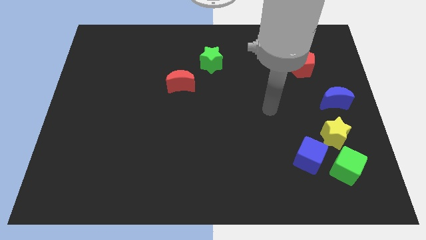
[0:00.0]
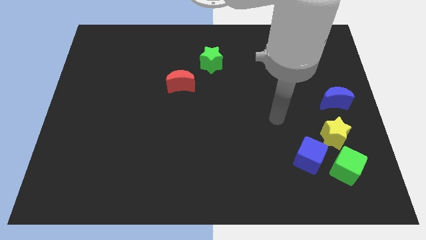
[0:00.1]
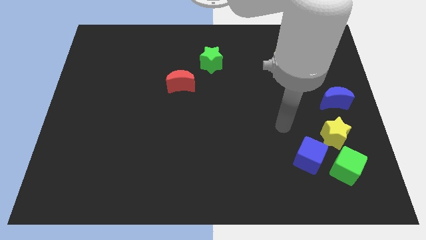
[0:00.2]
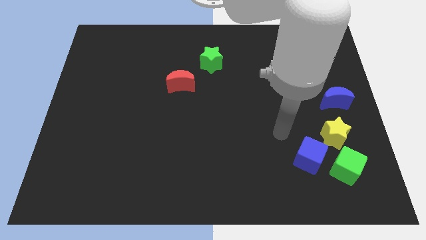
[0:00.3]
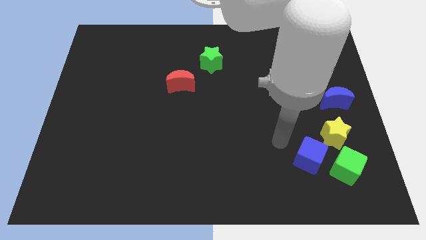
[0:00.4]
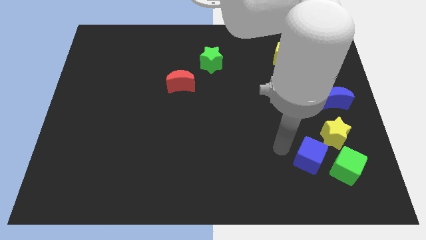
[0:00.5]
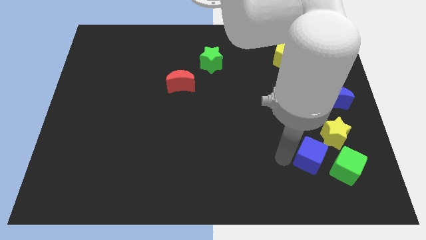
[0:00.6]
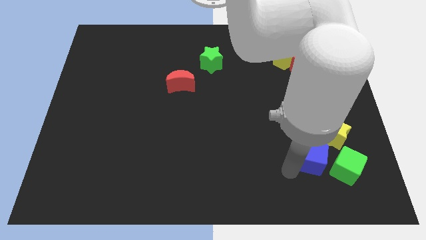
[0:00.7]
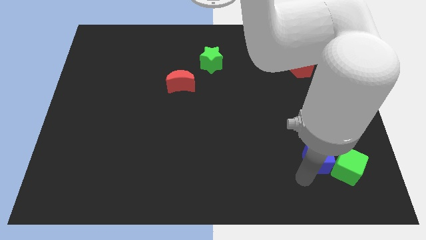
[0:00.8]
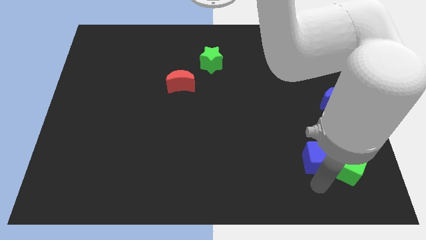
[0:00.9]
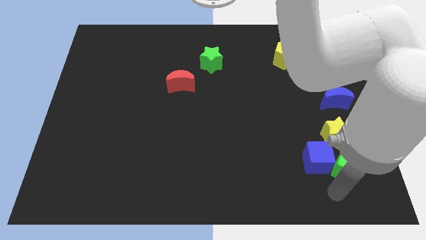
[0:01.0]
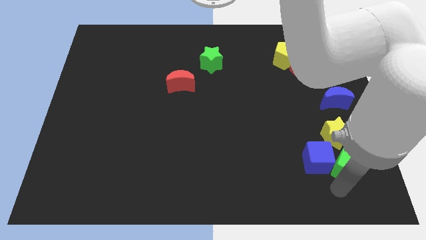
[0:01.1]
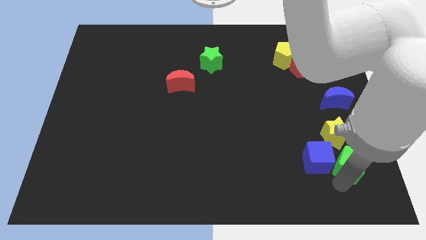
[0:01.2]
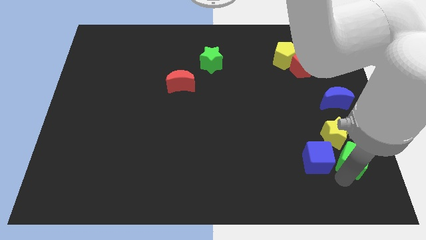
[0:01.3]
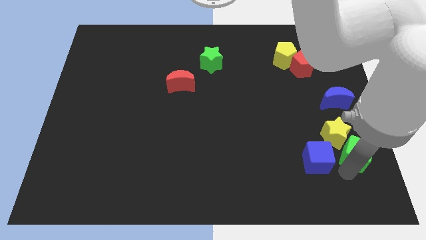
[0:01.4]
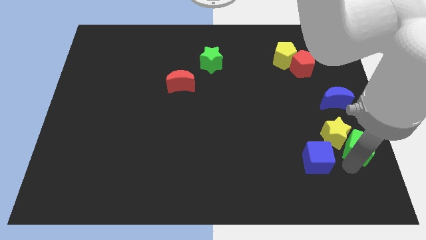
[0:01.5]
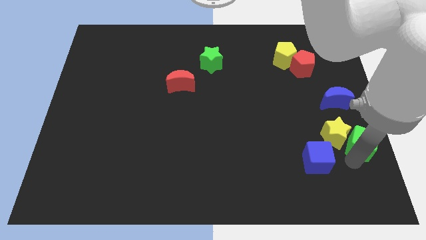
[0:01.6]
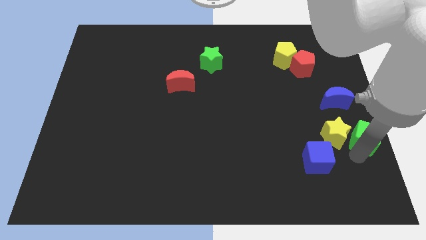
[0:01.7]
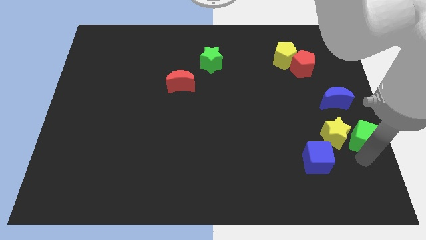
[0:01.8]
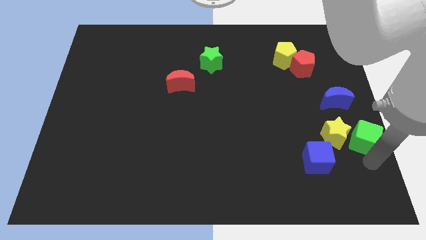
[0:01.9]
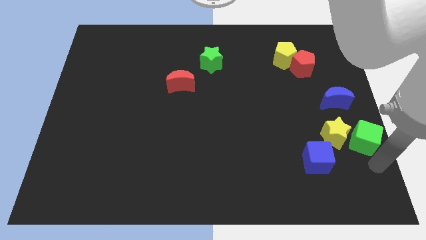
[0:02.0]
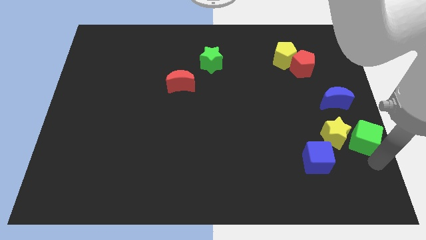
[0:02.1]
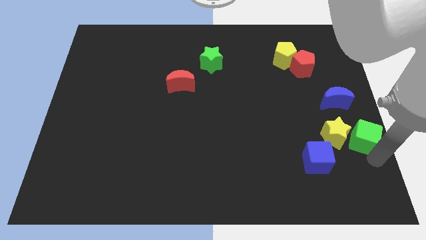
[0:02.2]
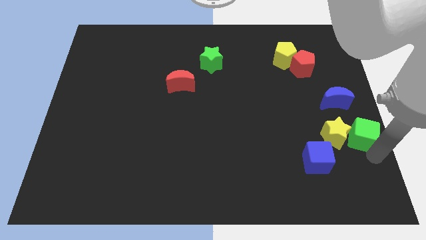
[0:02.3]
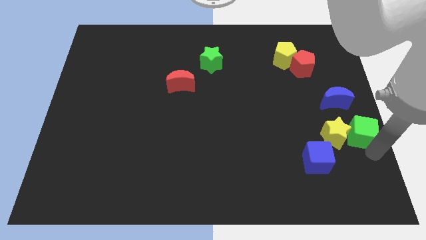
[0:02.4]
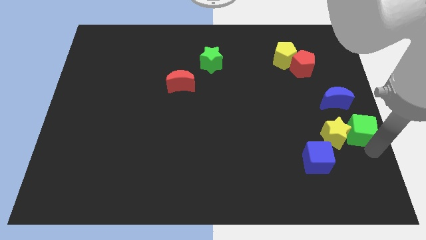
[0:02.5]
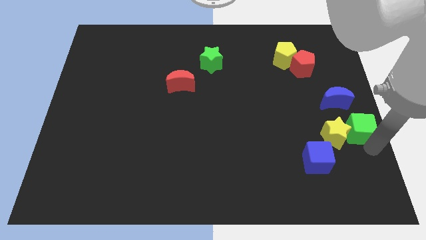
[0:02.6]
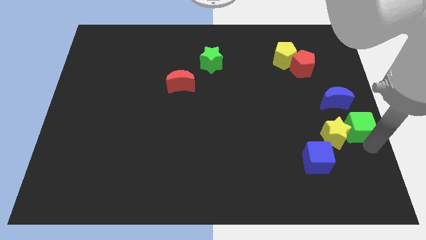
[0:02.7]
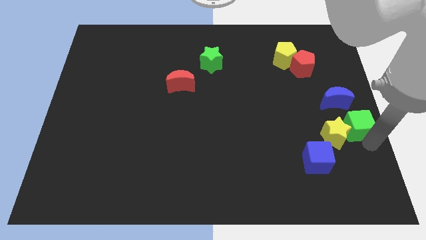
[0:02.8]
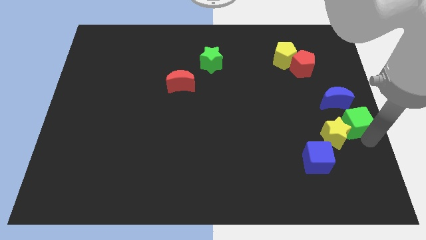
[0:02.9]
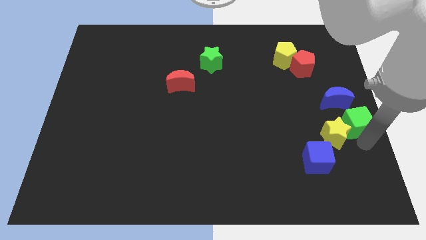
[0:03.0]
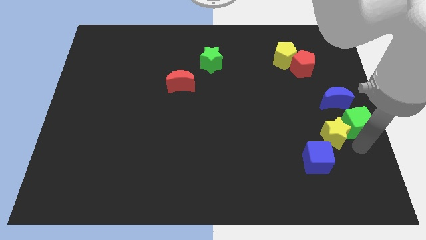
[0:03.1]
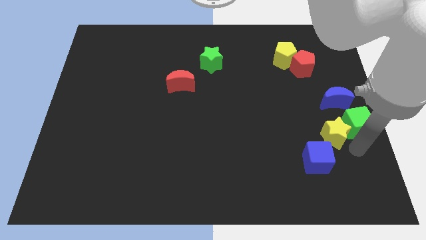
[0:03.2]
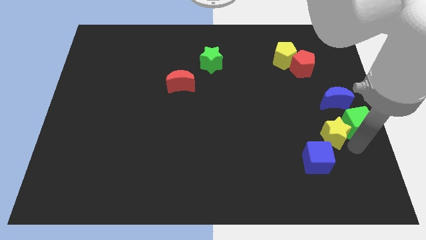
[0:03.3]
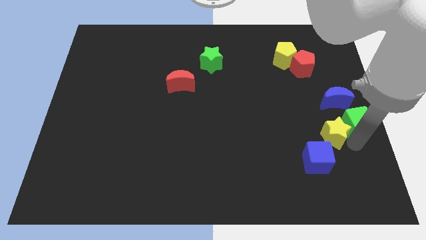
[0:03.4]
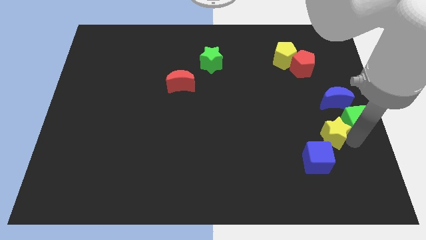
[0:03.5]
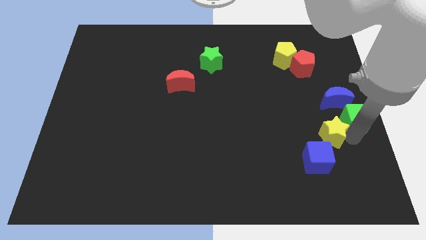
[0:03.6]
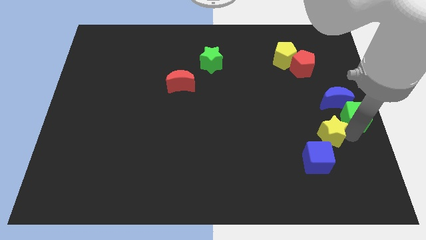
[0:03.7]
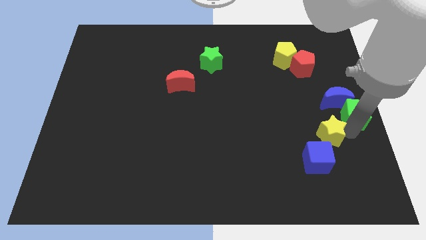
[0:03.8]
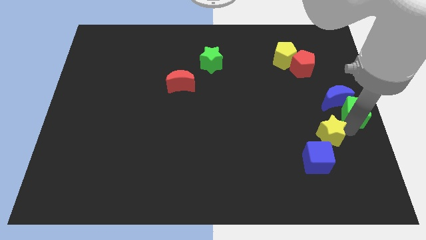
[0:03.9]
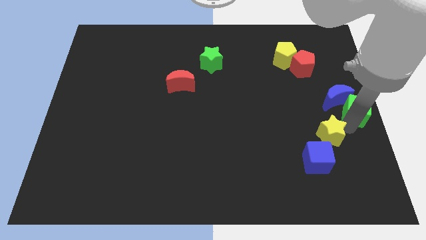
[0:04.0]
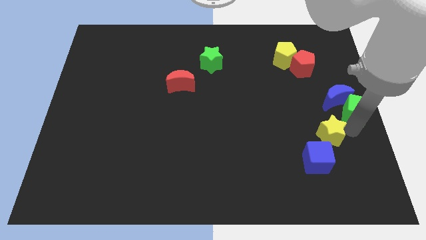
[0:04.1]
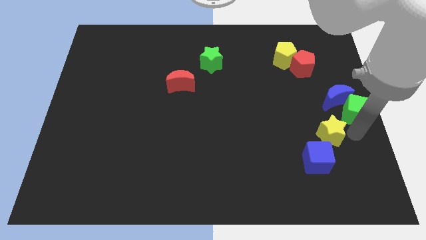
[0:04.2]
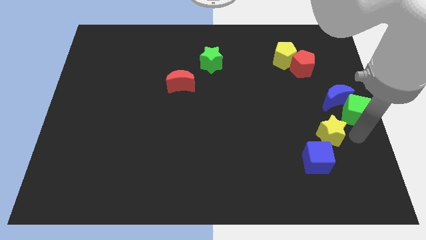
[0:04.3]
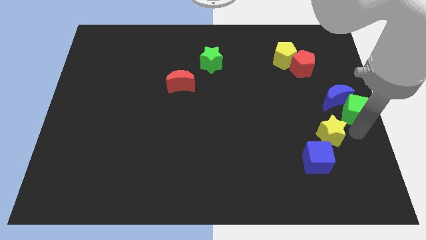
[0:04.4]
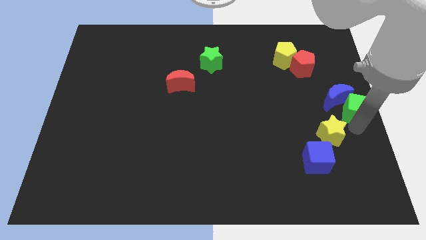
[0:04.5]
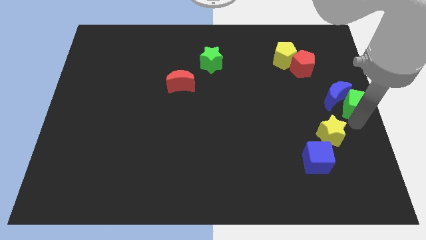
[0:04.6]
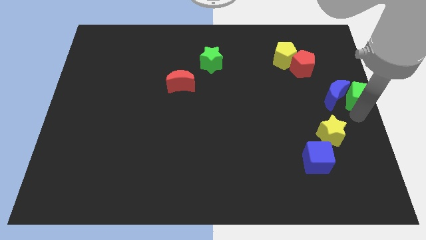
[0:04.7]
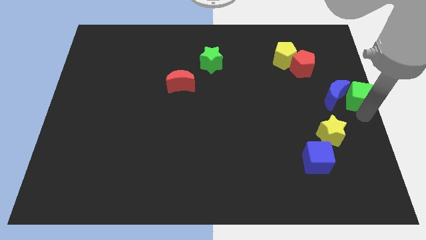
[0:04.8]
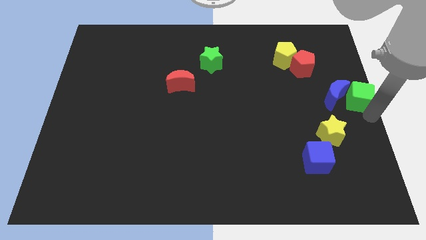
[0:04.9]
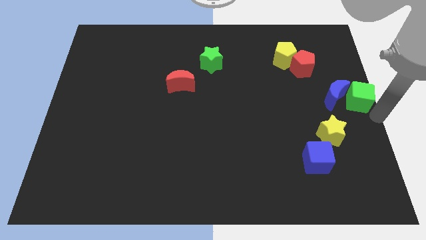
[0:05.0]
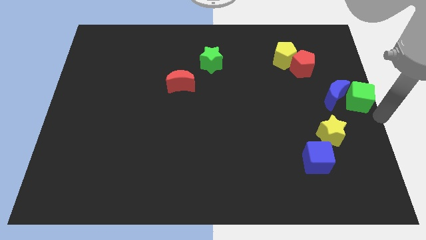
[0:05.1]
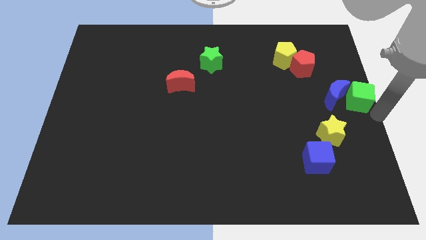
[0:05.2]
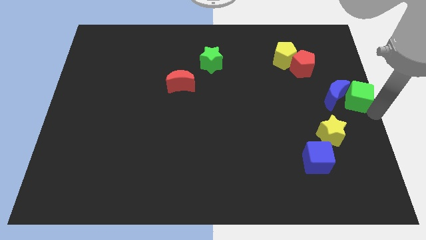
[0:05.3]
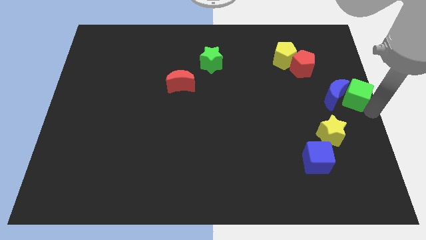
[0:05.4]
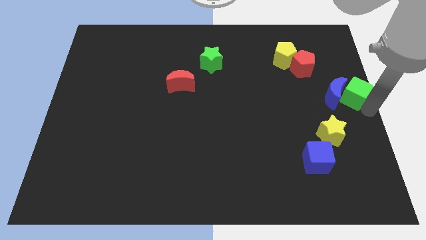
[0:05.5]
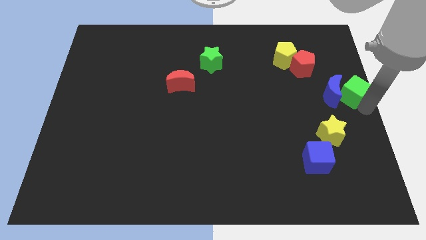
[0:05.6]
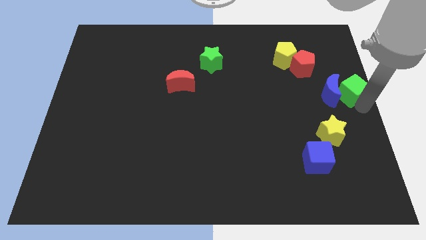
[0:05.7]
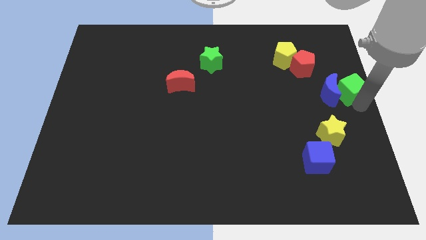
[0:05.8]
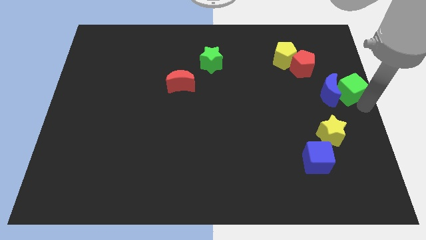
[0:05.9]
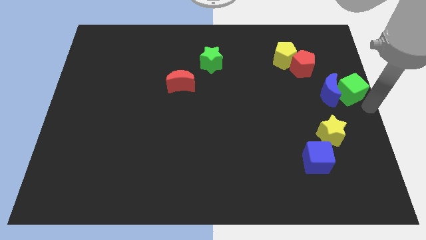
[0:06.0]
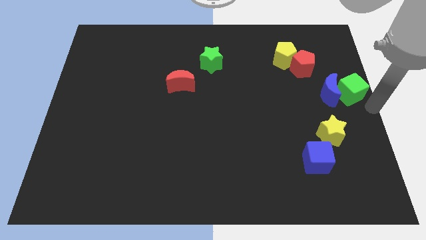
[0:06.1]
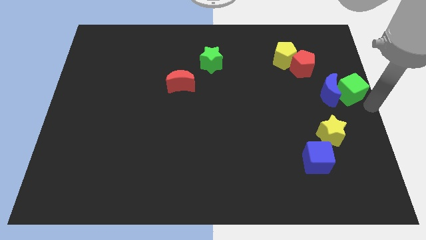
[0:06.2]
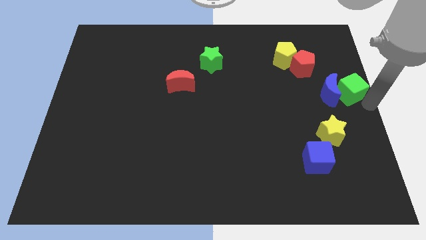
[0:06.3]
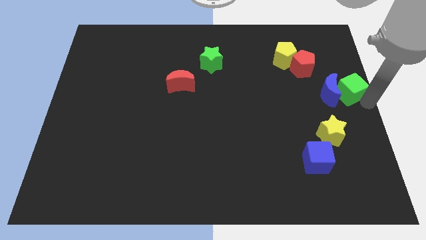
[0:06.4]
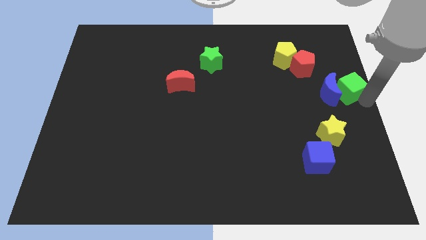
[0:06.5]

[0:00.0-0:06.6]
move the green cube up

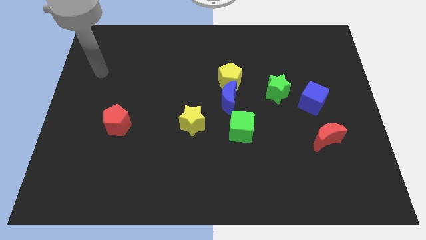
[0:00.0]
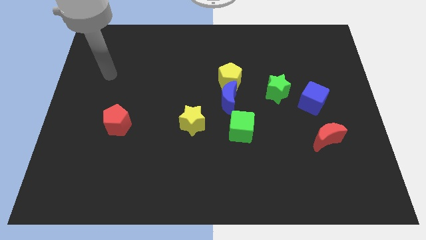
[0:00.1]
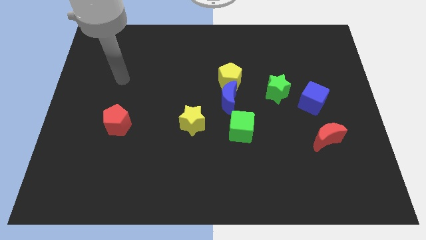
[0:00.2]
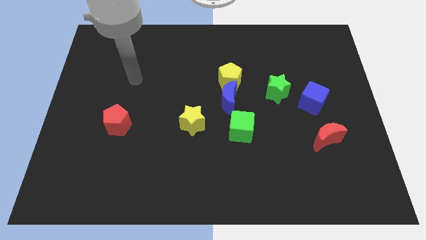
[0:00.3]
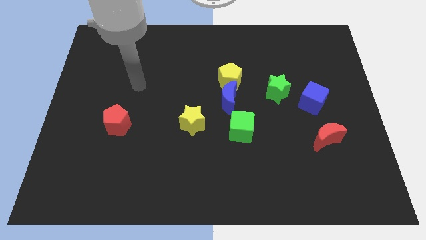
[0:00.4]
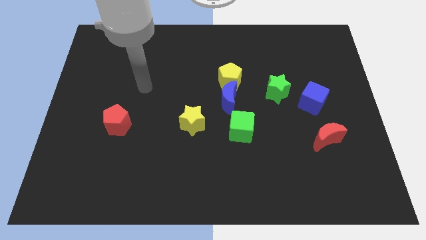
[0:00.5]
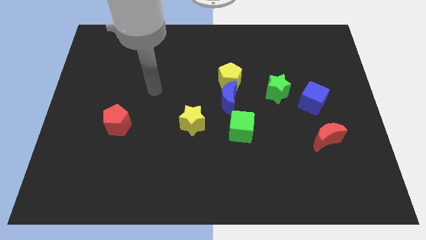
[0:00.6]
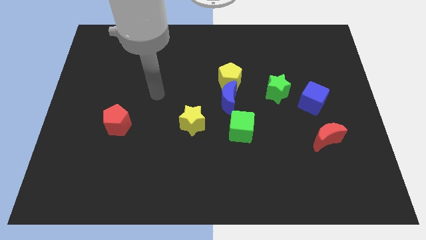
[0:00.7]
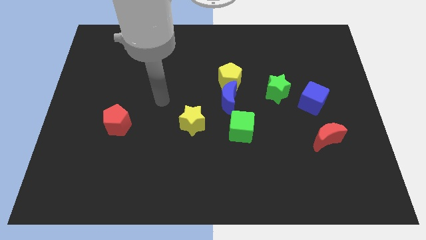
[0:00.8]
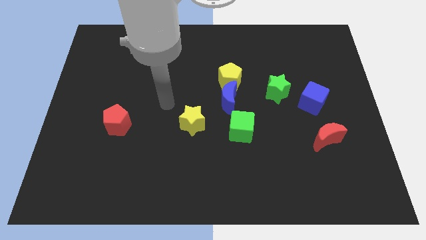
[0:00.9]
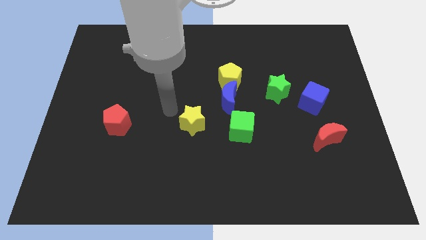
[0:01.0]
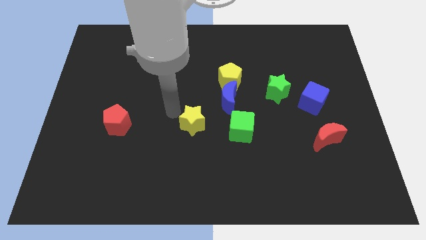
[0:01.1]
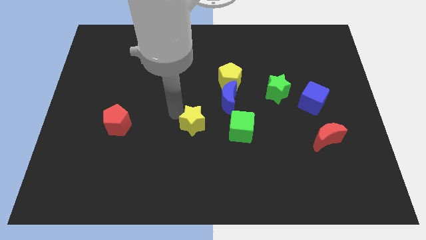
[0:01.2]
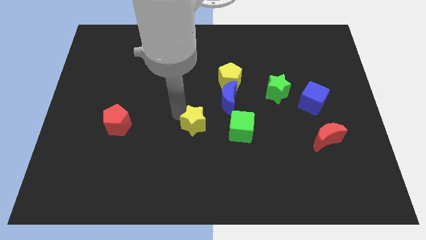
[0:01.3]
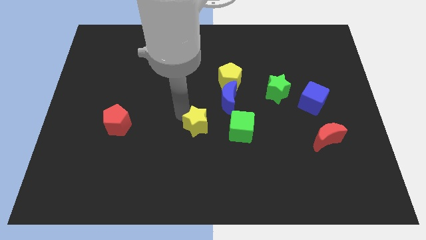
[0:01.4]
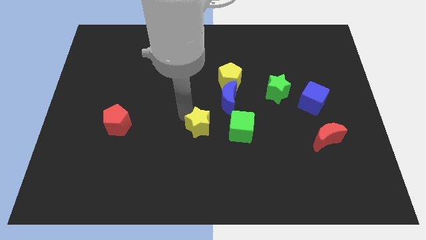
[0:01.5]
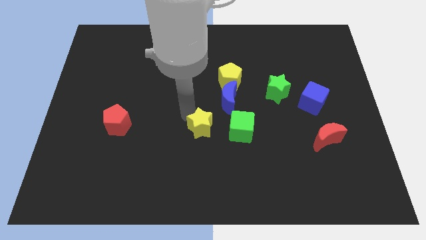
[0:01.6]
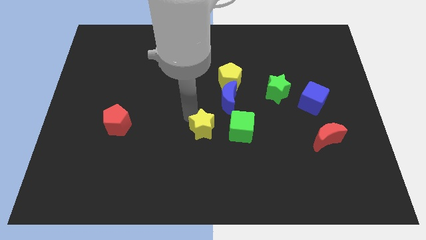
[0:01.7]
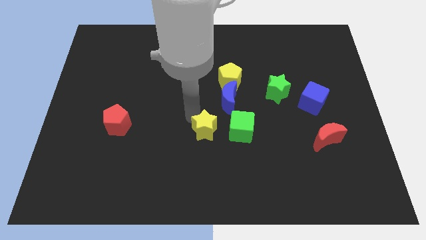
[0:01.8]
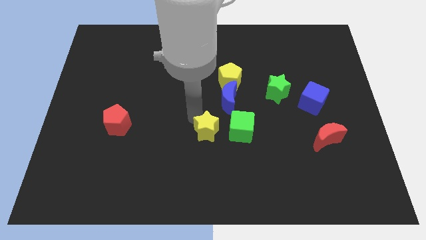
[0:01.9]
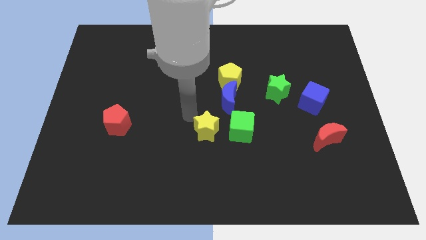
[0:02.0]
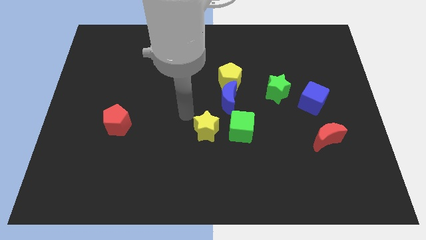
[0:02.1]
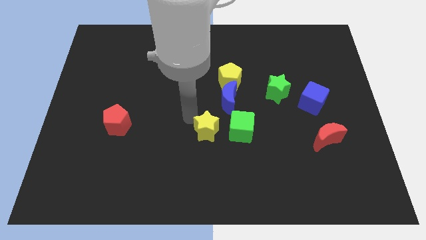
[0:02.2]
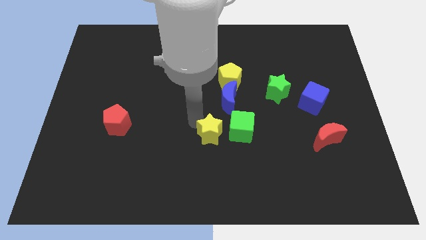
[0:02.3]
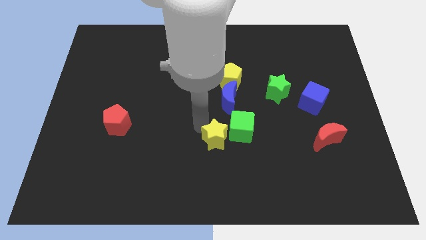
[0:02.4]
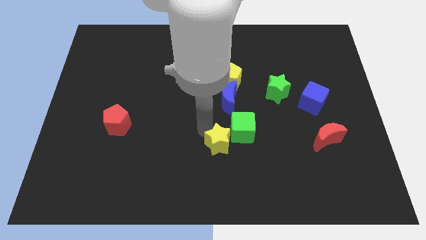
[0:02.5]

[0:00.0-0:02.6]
push the yellow star downwards and then to the right a little
